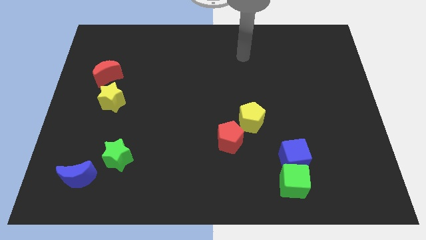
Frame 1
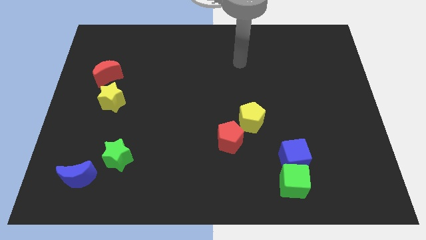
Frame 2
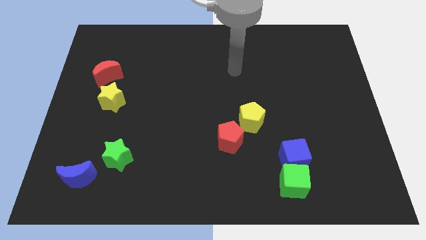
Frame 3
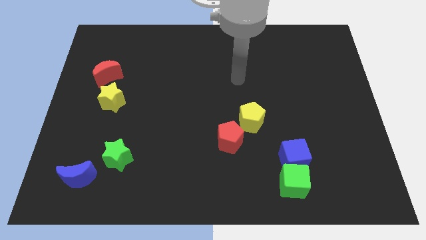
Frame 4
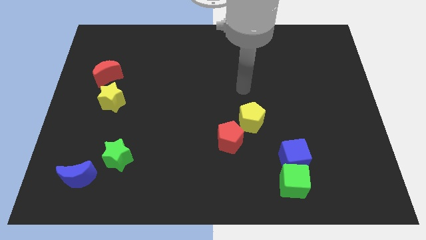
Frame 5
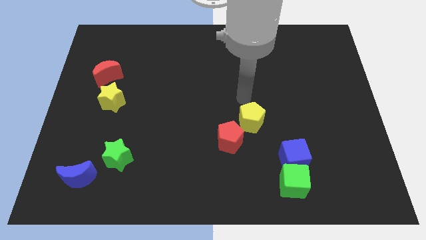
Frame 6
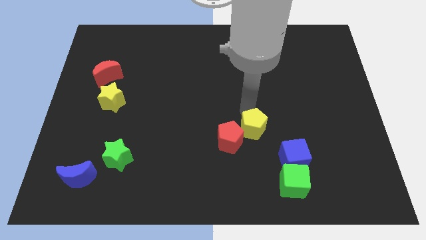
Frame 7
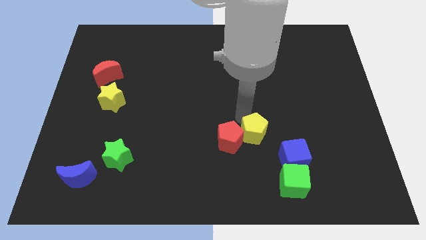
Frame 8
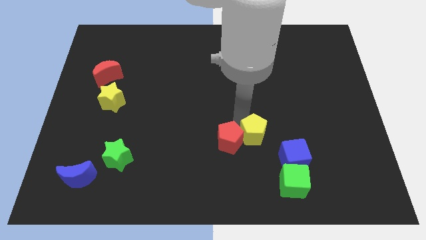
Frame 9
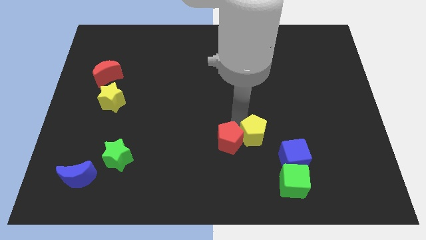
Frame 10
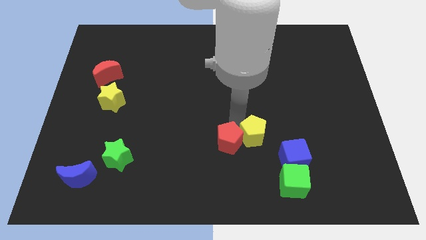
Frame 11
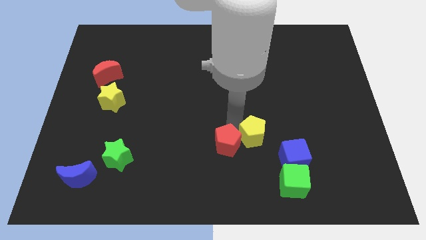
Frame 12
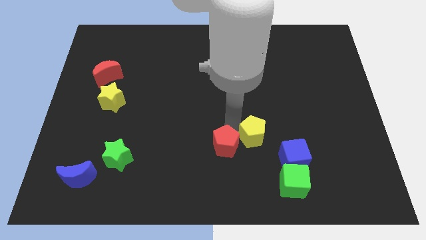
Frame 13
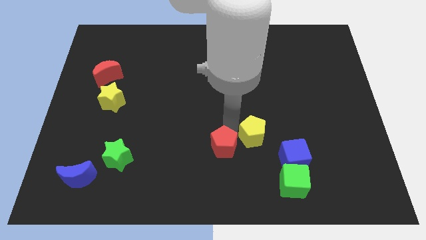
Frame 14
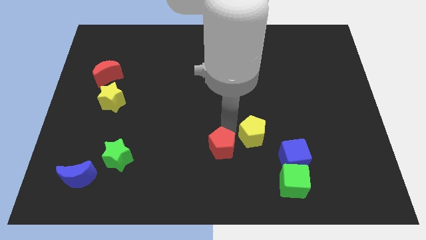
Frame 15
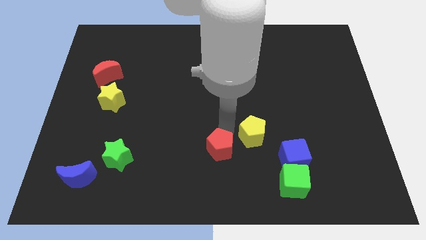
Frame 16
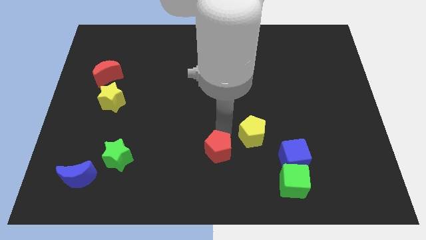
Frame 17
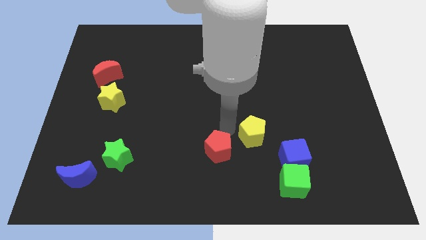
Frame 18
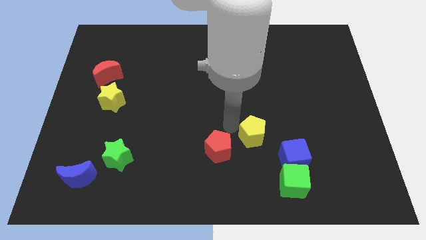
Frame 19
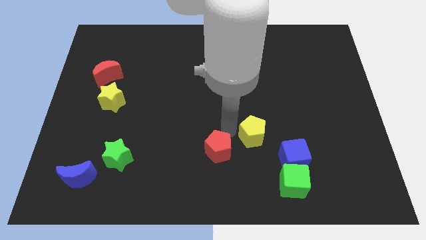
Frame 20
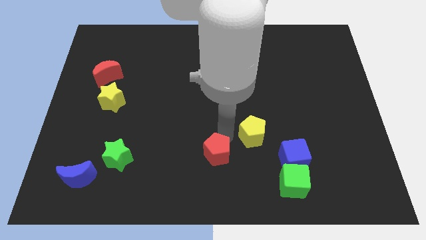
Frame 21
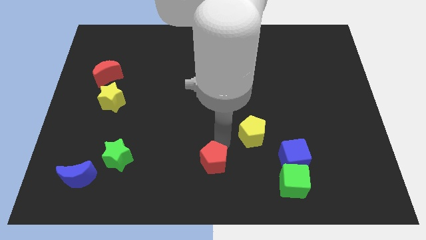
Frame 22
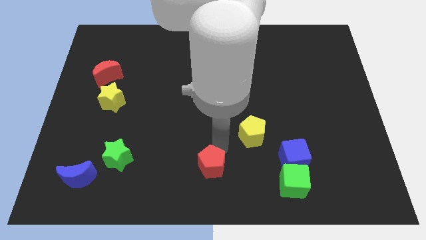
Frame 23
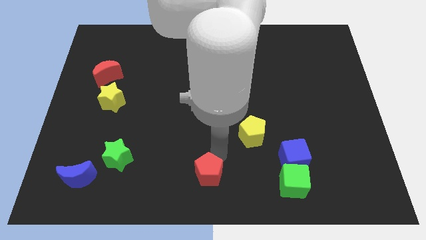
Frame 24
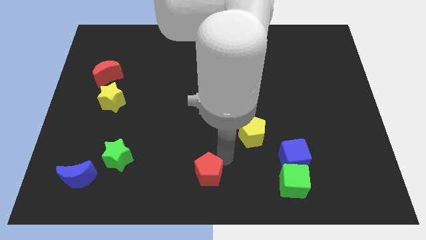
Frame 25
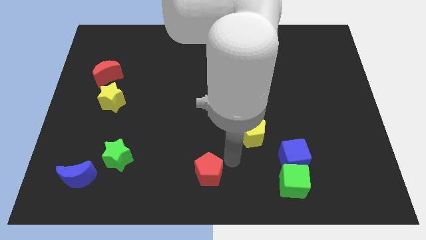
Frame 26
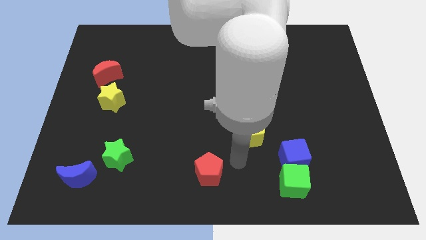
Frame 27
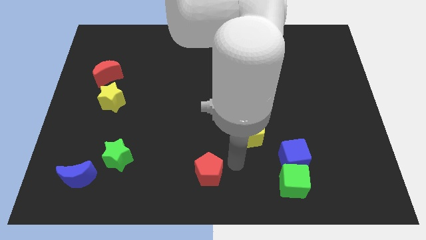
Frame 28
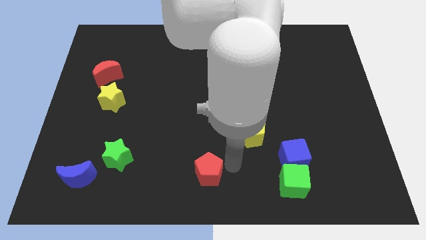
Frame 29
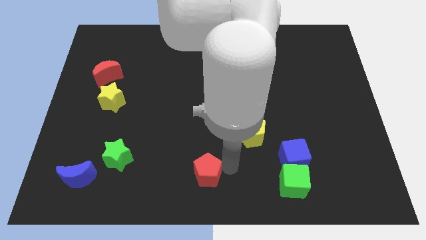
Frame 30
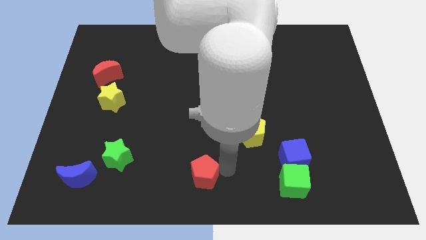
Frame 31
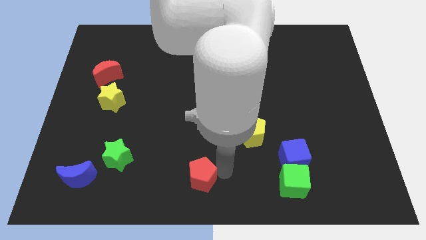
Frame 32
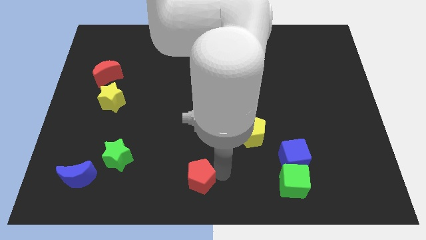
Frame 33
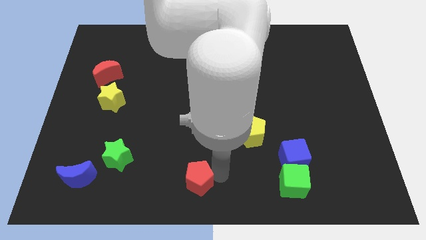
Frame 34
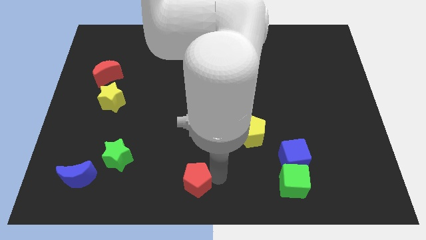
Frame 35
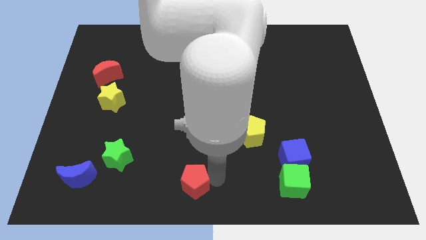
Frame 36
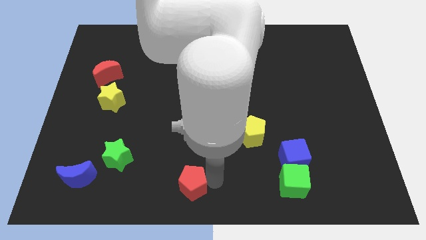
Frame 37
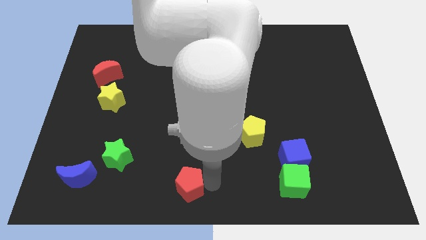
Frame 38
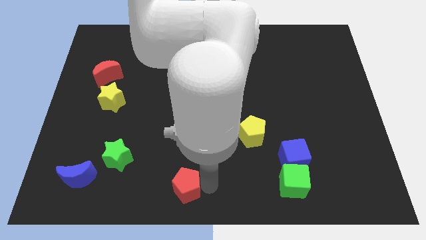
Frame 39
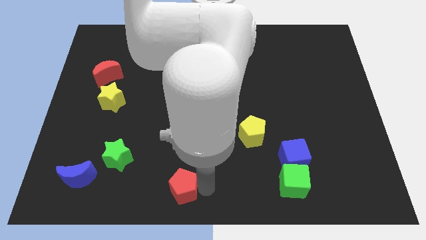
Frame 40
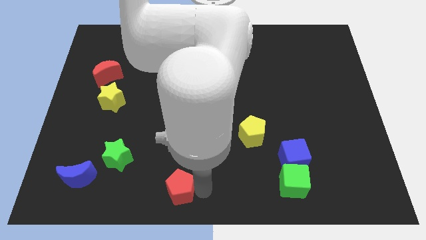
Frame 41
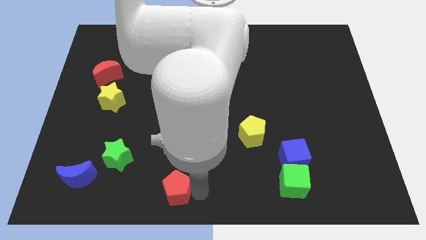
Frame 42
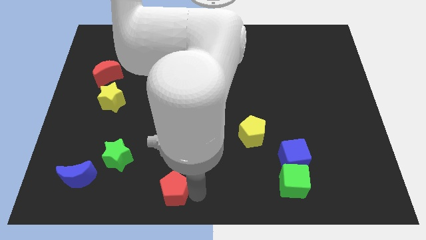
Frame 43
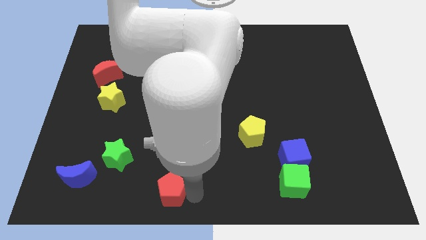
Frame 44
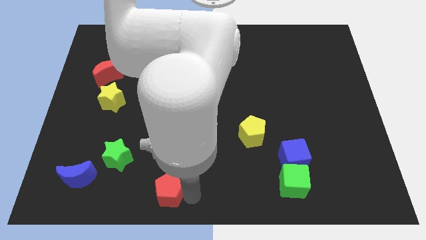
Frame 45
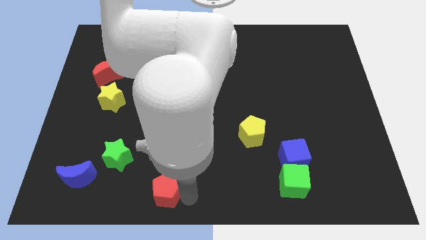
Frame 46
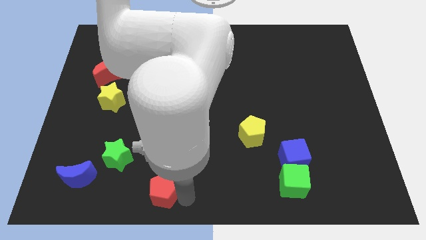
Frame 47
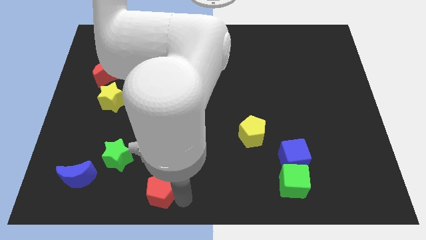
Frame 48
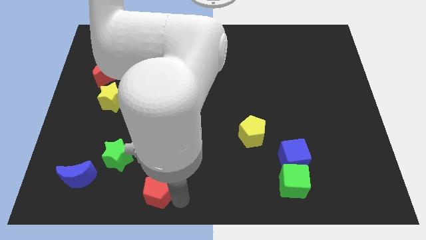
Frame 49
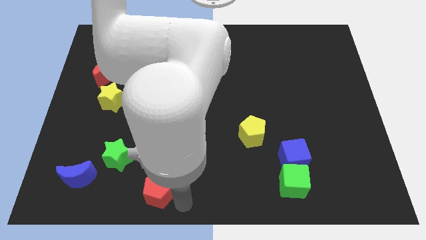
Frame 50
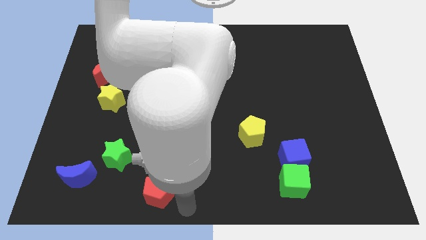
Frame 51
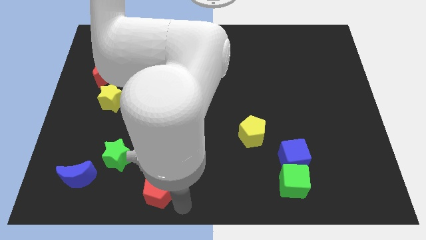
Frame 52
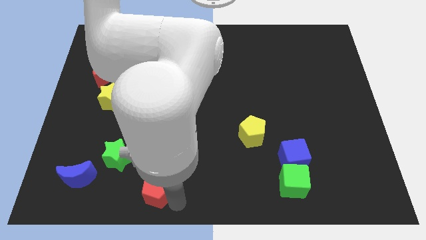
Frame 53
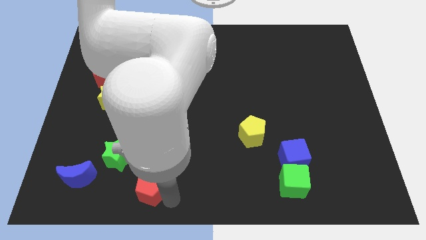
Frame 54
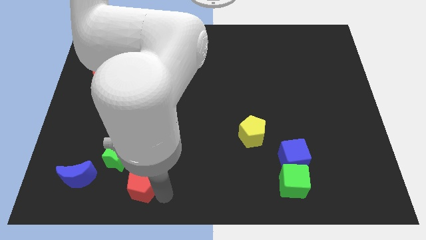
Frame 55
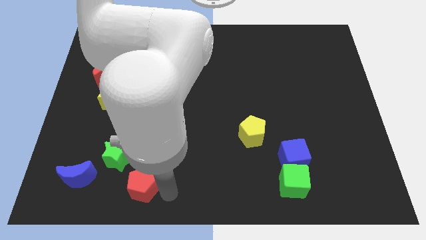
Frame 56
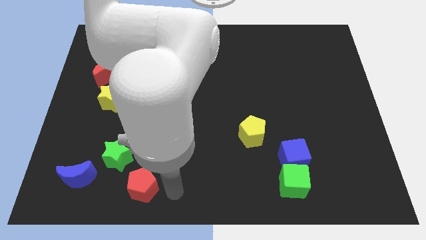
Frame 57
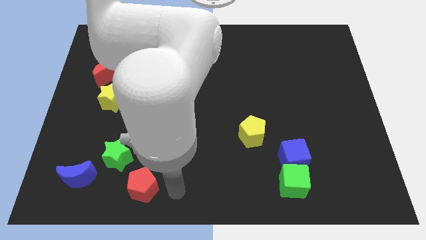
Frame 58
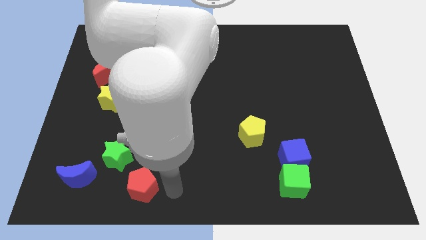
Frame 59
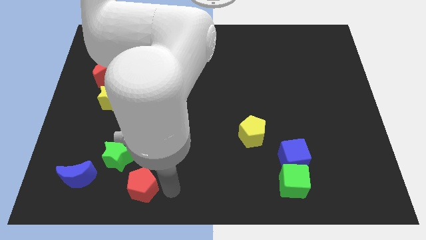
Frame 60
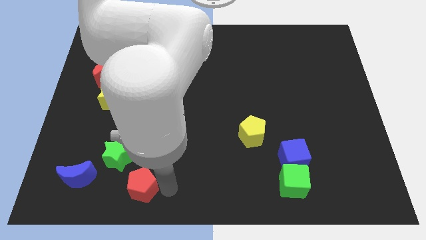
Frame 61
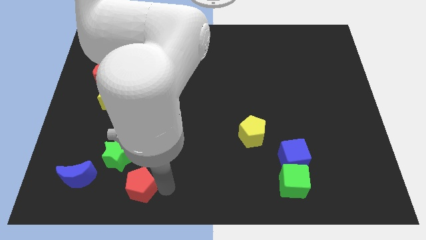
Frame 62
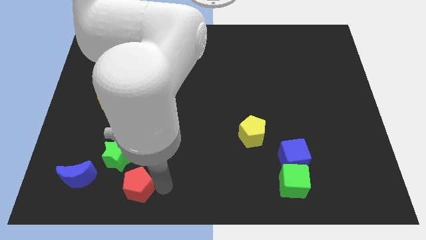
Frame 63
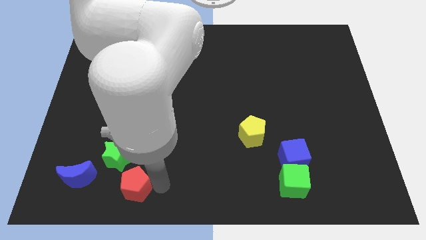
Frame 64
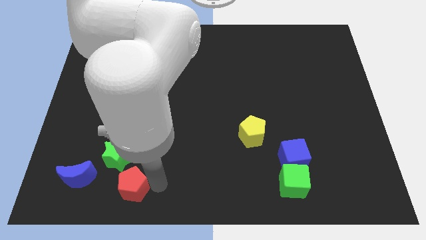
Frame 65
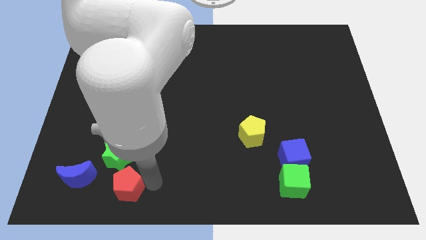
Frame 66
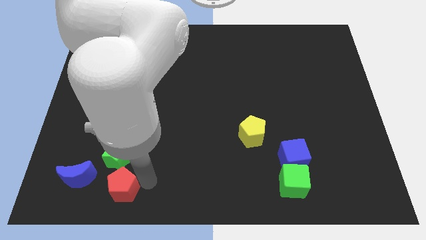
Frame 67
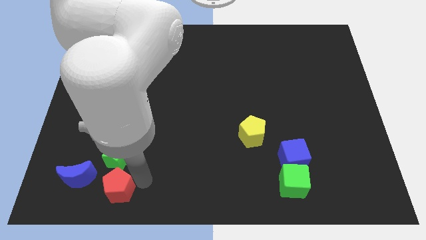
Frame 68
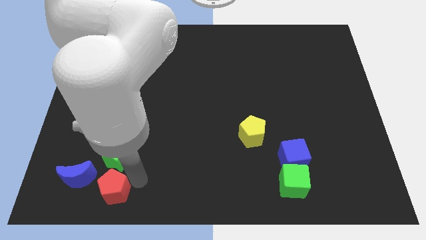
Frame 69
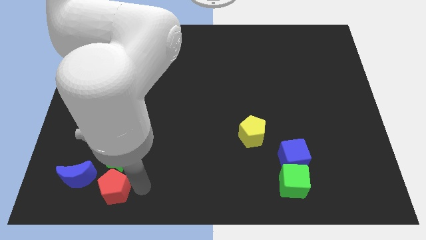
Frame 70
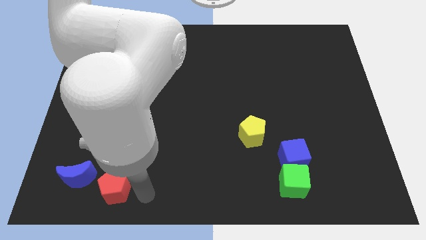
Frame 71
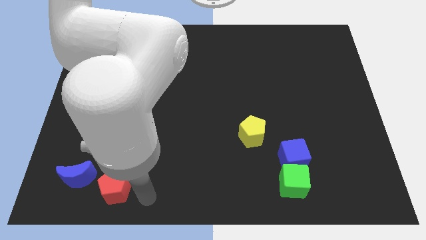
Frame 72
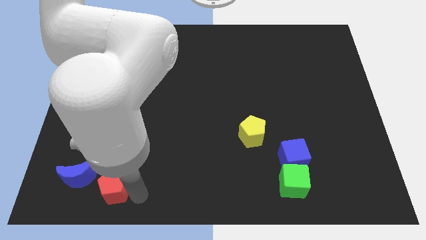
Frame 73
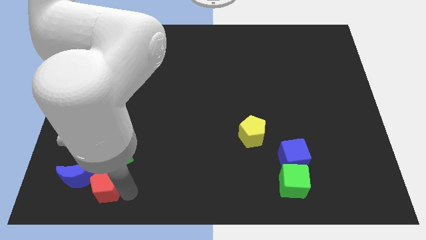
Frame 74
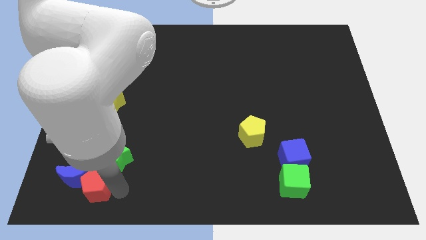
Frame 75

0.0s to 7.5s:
slide the red pentagon close to the blue moon
